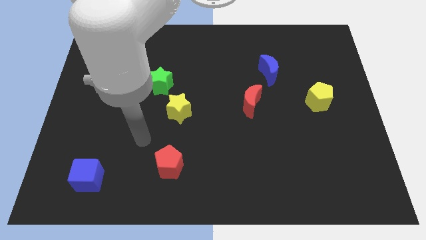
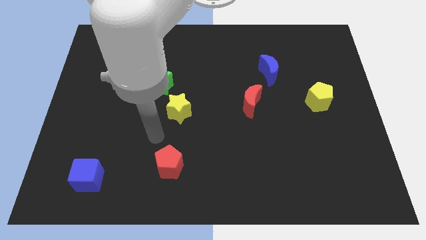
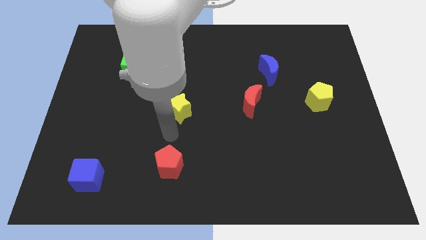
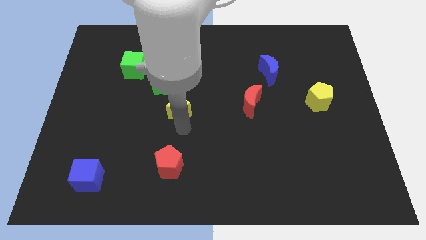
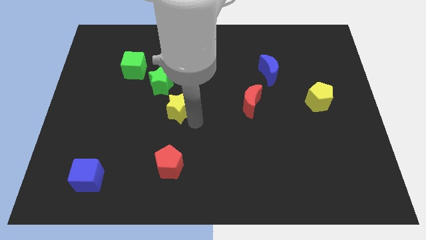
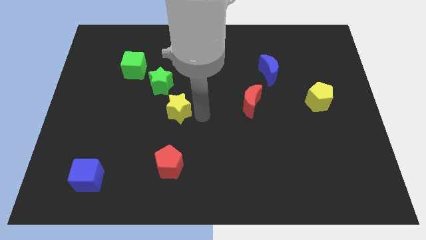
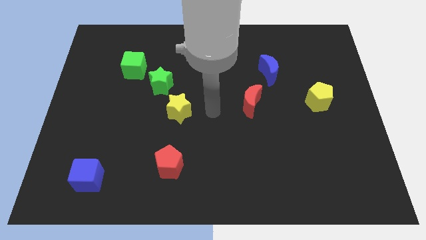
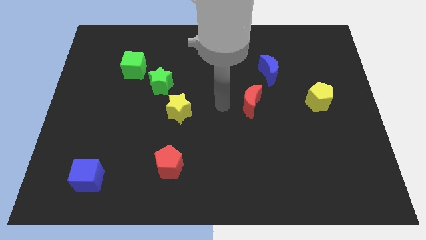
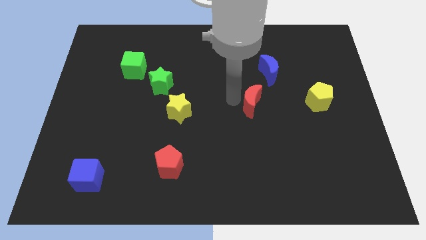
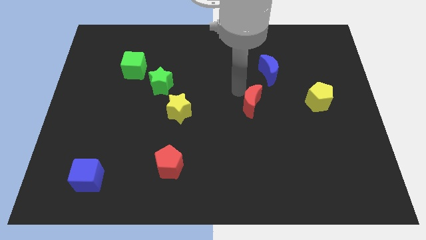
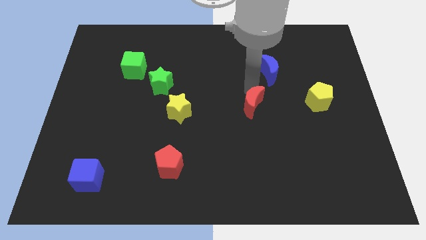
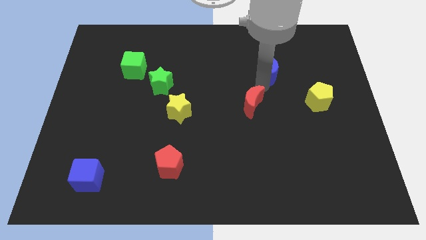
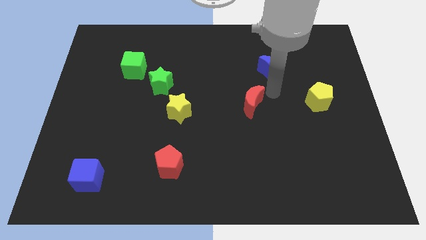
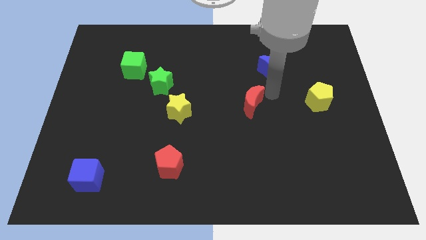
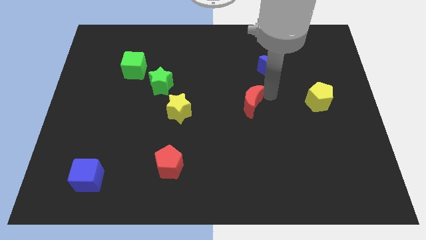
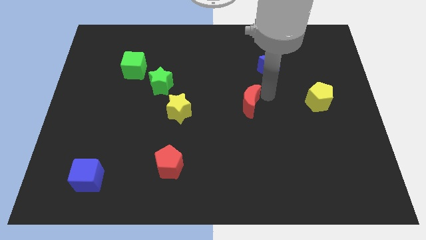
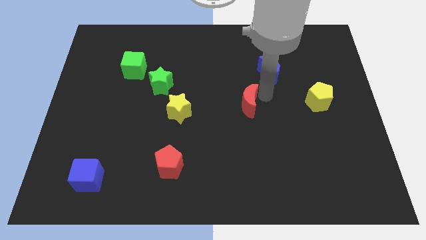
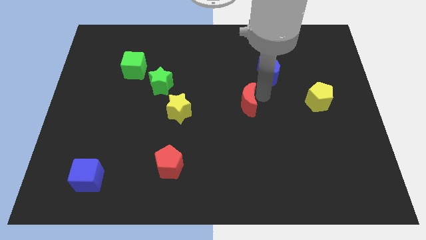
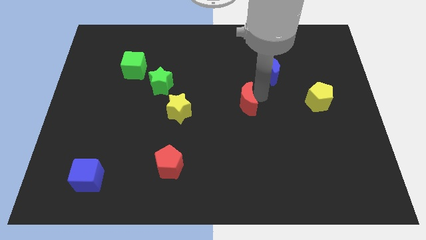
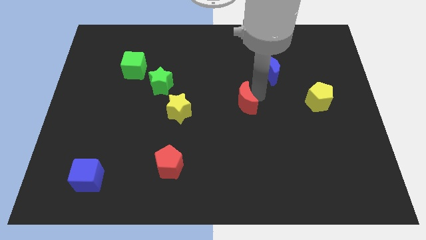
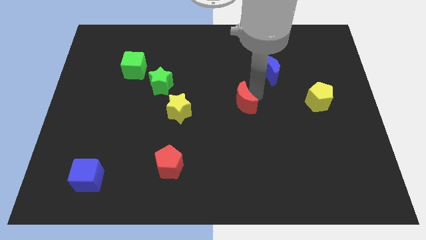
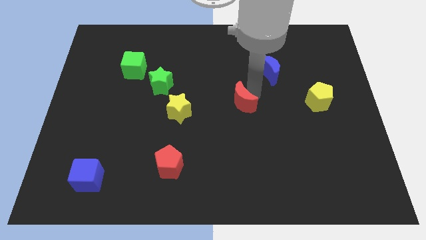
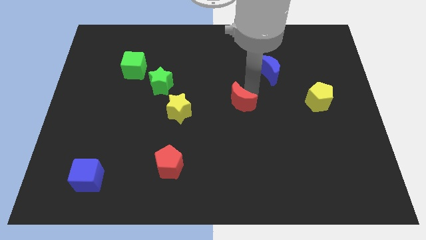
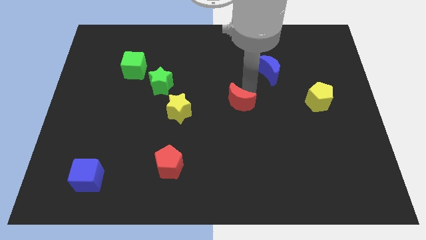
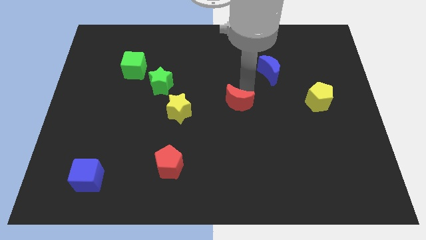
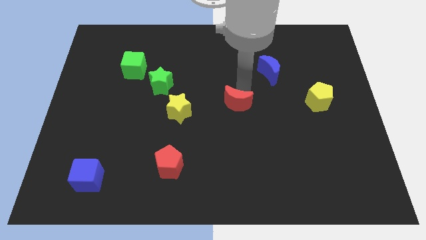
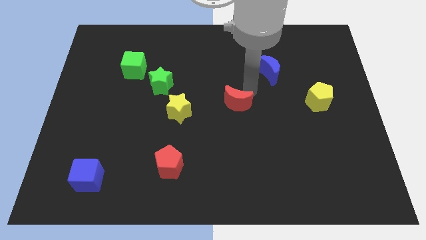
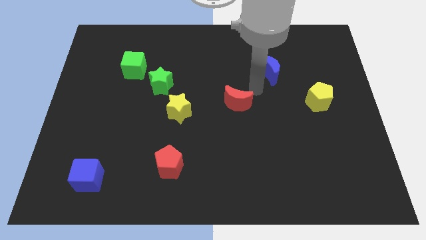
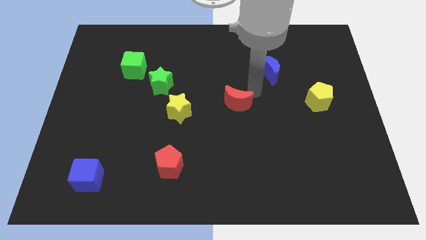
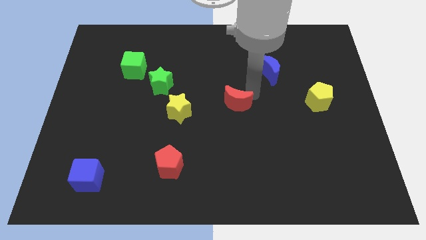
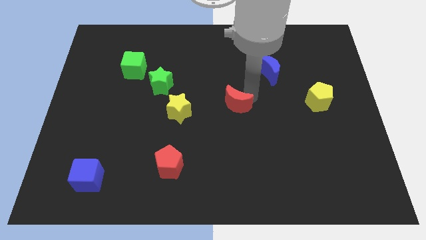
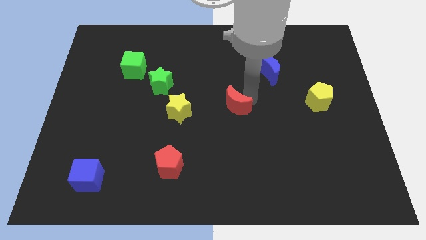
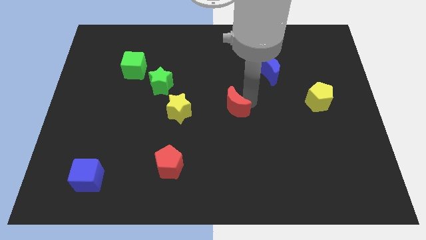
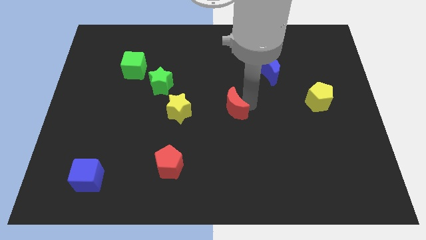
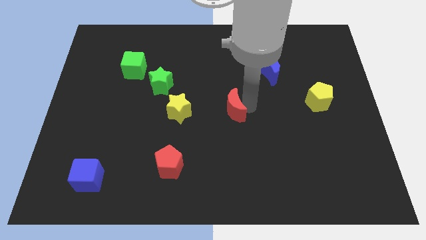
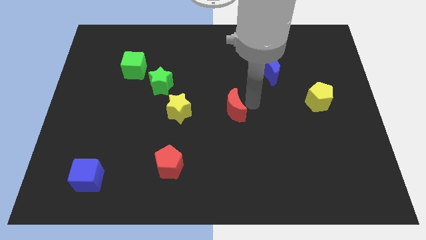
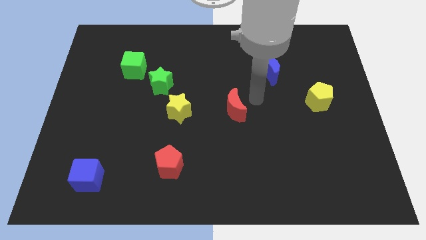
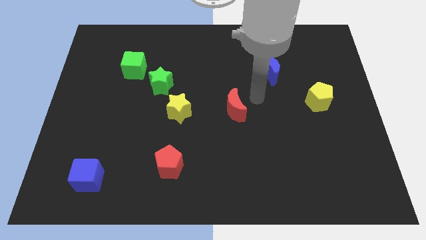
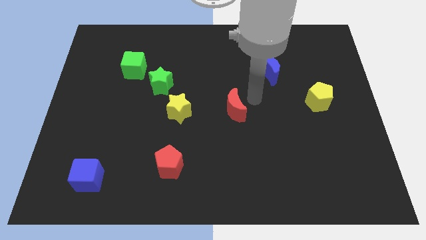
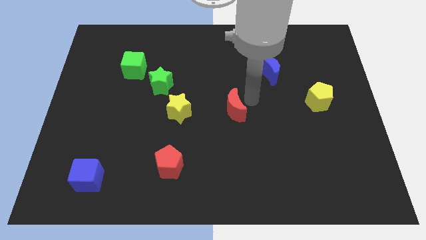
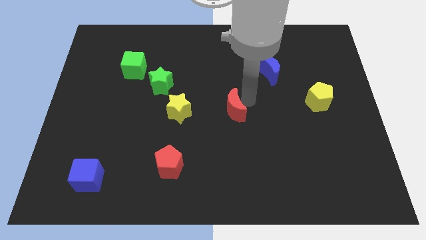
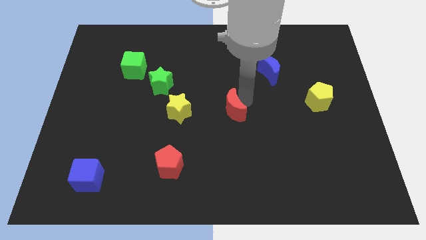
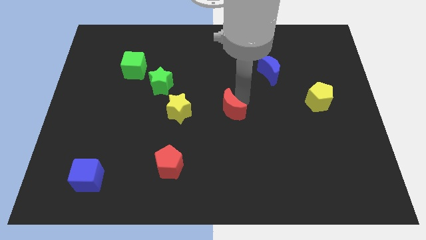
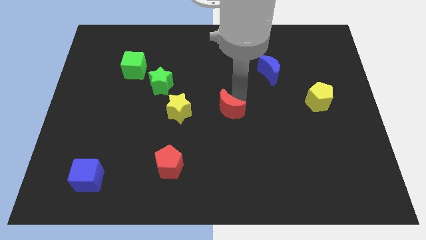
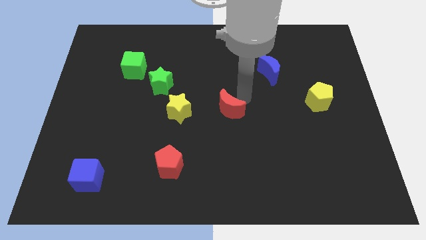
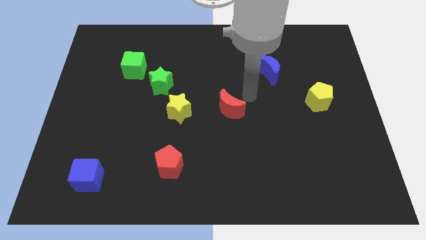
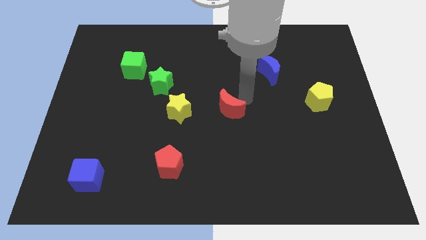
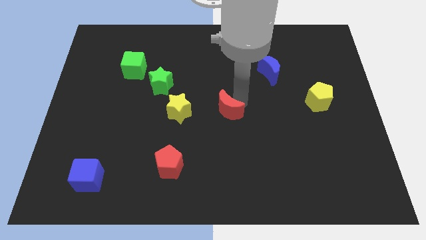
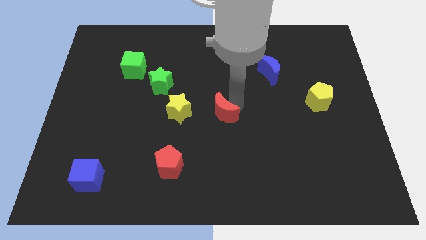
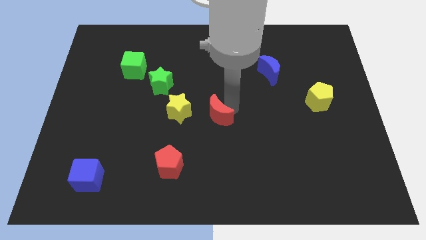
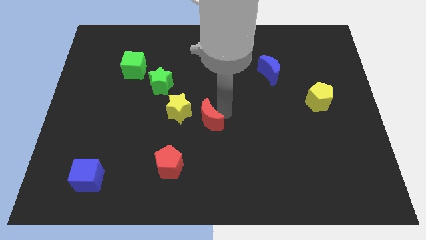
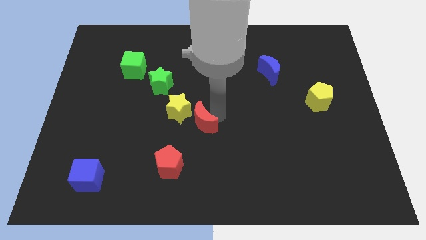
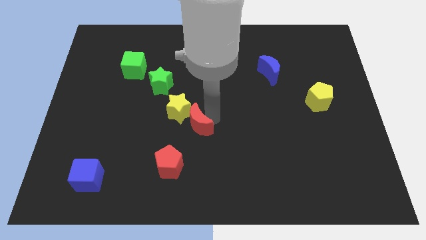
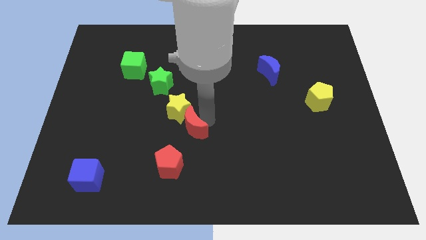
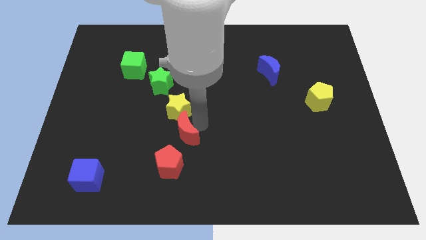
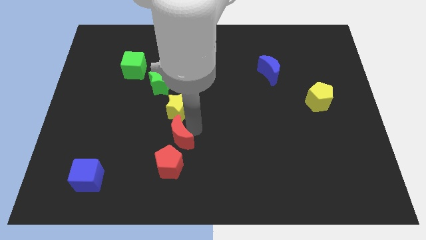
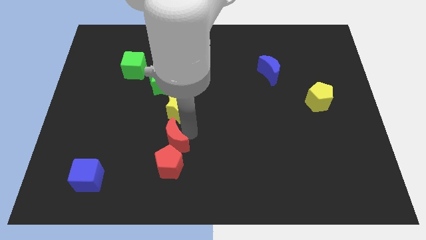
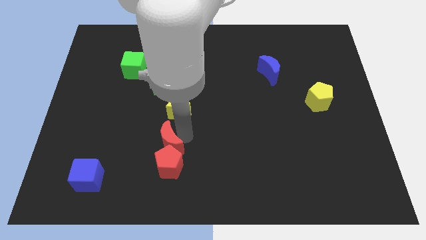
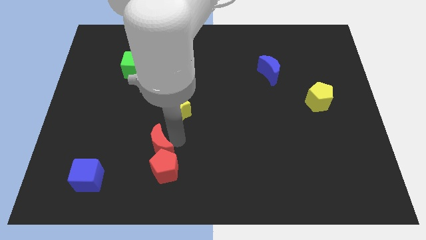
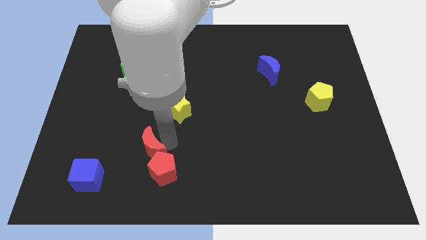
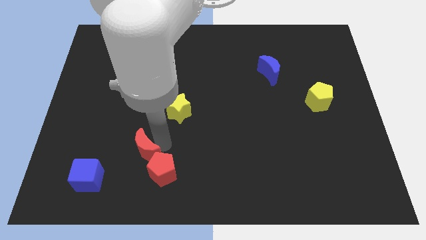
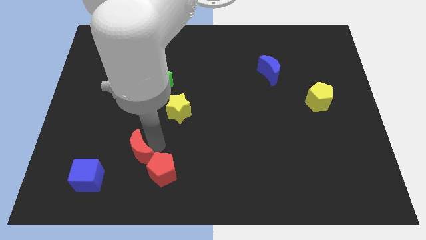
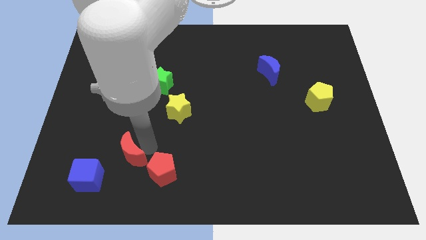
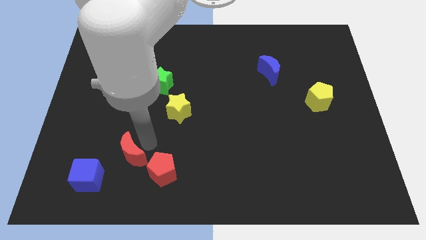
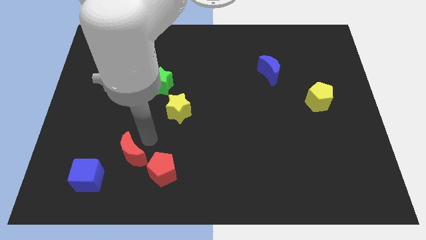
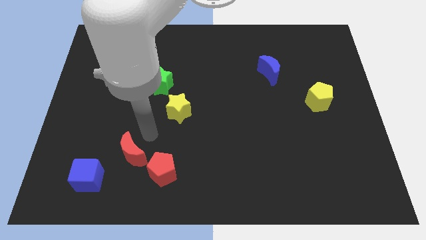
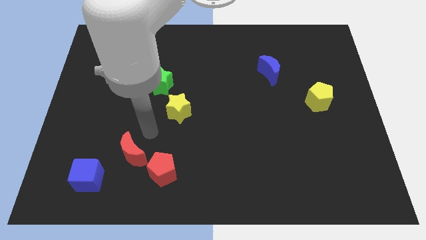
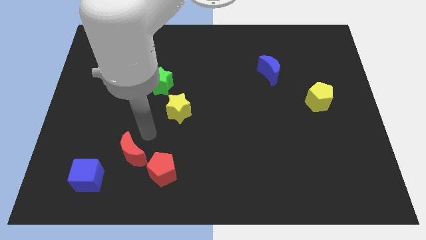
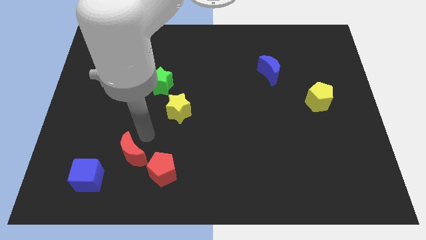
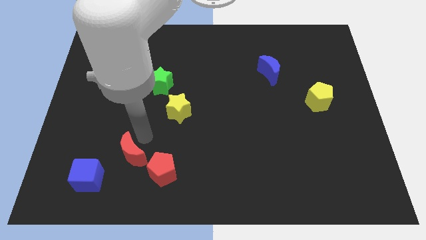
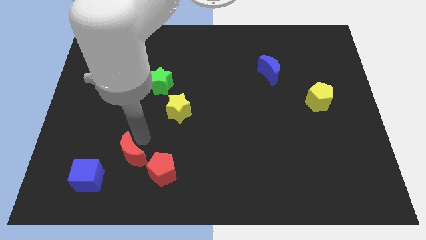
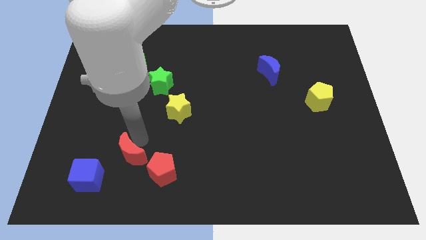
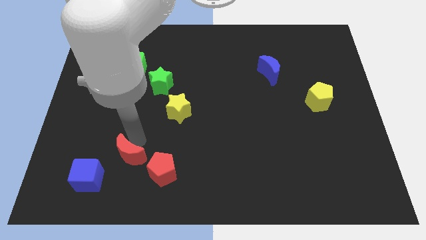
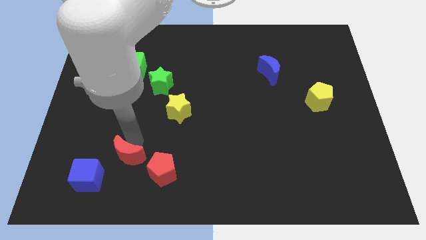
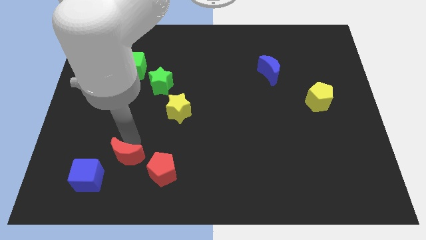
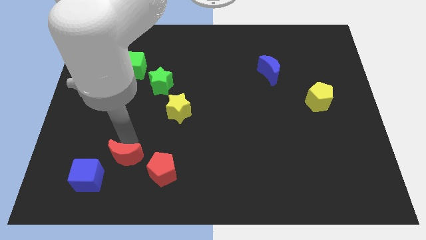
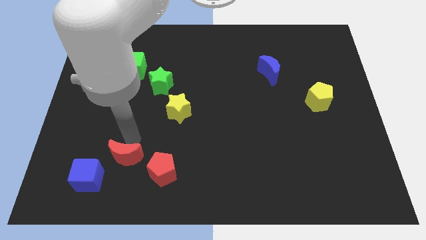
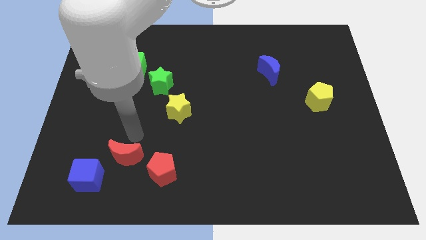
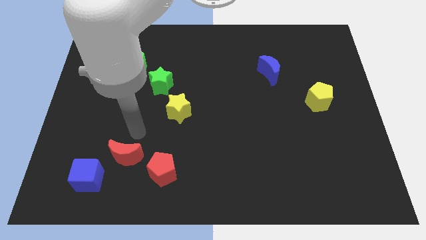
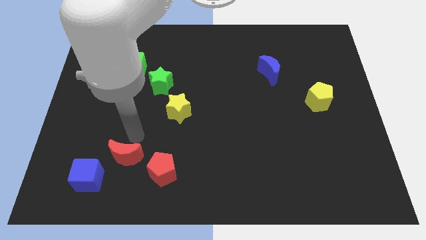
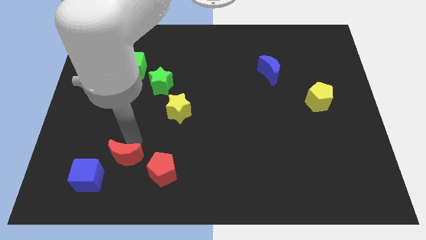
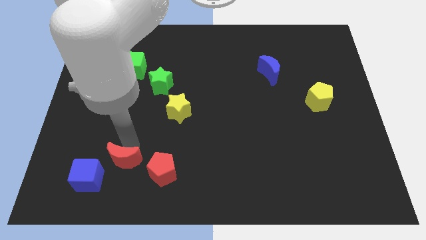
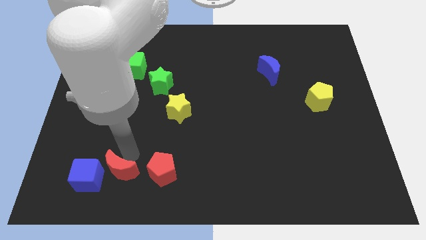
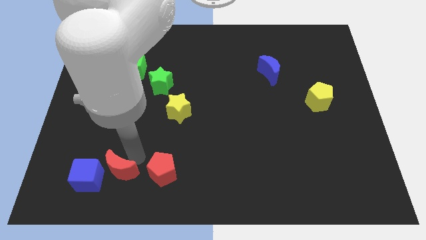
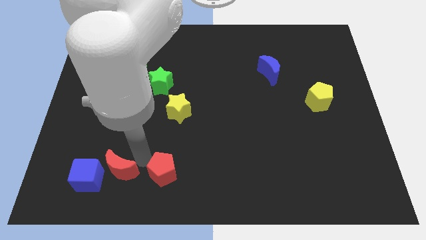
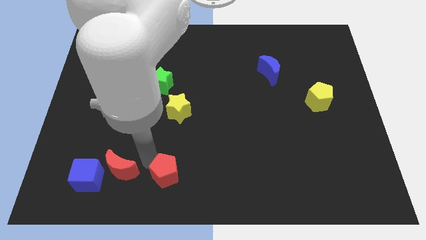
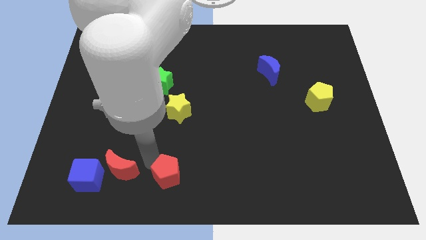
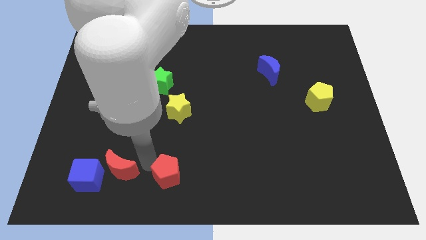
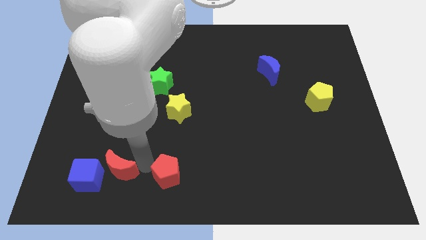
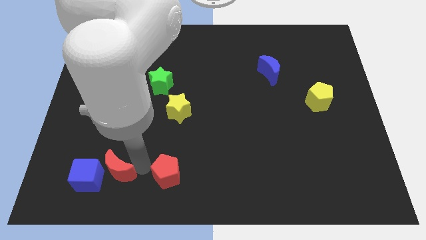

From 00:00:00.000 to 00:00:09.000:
move the red moon to the blue cube
